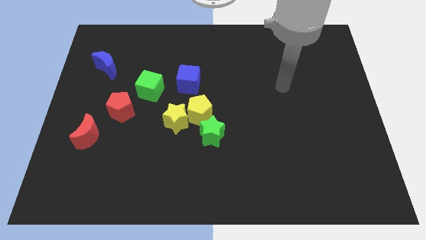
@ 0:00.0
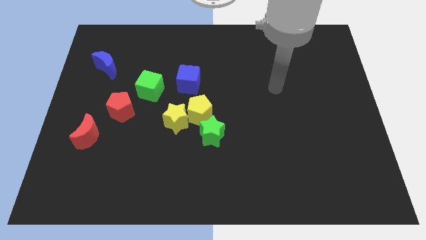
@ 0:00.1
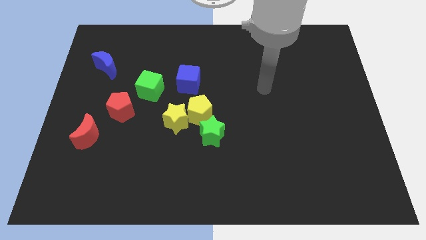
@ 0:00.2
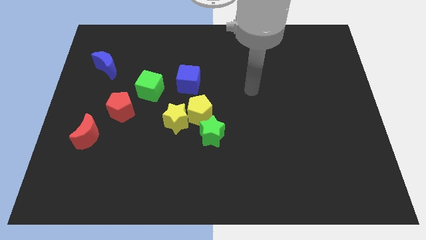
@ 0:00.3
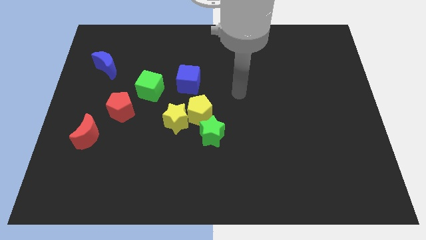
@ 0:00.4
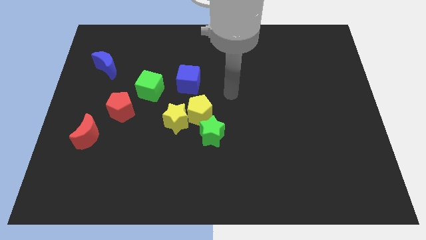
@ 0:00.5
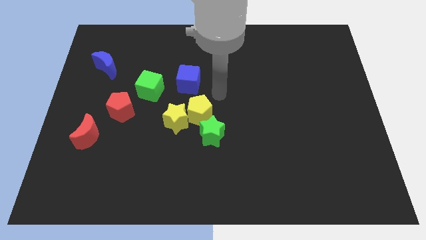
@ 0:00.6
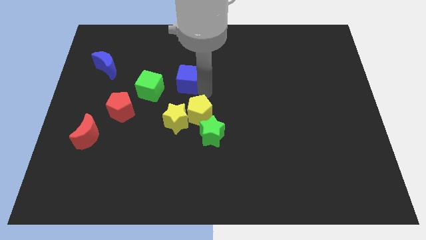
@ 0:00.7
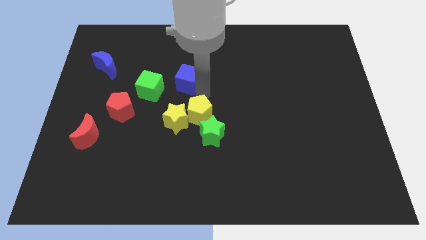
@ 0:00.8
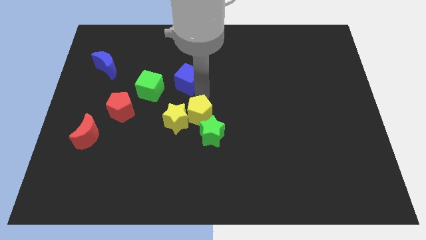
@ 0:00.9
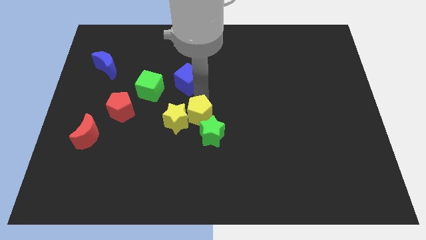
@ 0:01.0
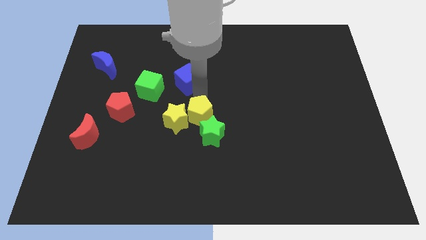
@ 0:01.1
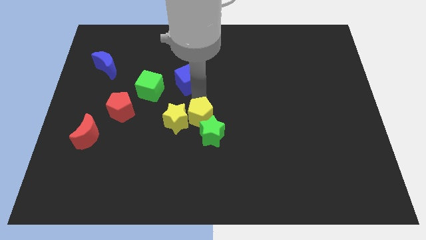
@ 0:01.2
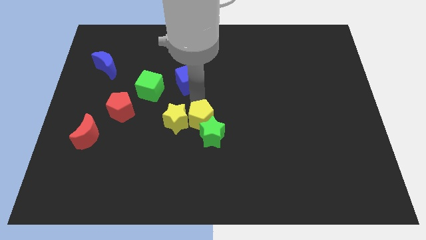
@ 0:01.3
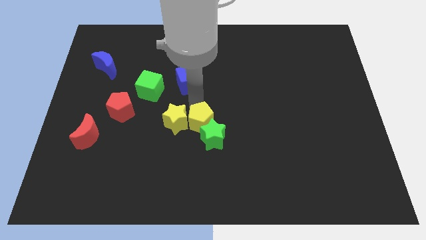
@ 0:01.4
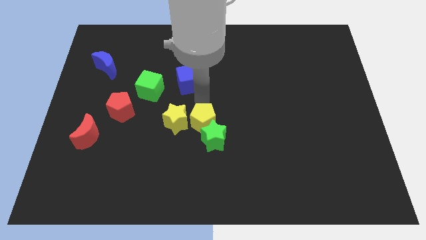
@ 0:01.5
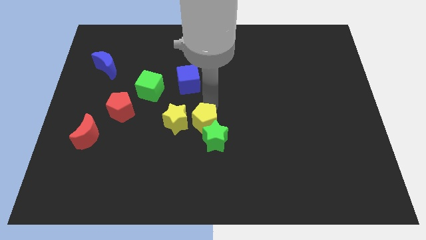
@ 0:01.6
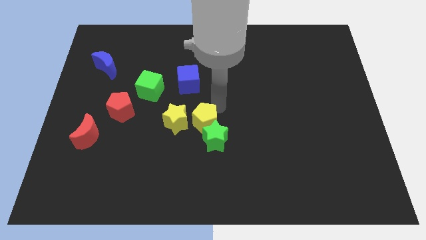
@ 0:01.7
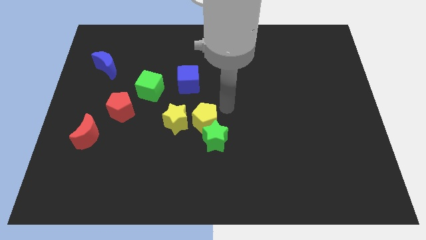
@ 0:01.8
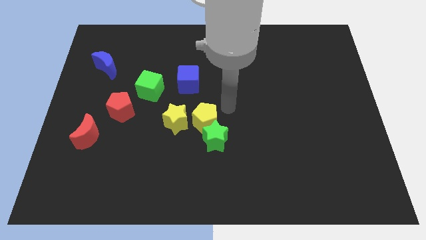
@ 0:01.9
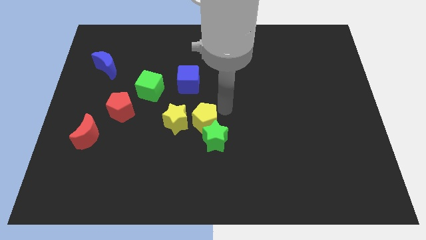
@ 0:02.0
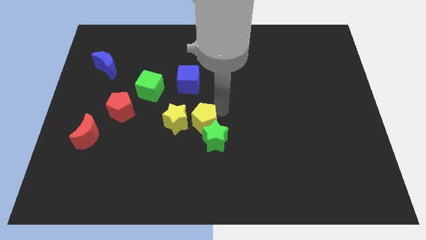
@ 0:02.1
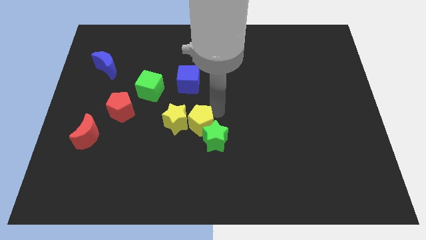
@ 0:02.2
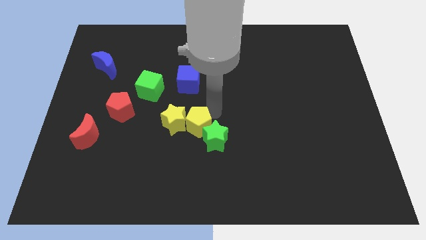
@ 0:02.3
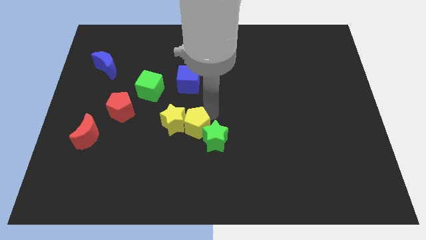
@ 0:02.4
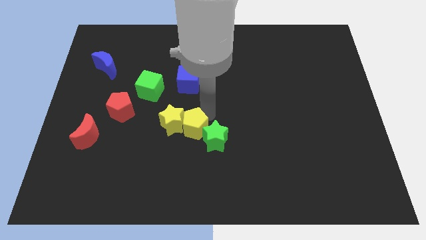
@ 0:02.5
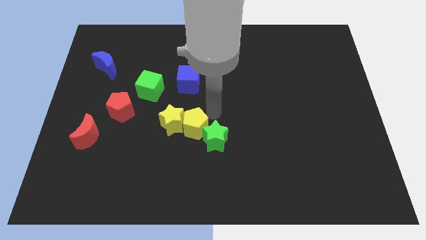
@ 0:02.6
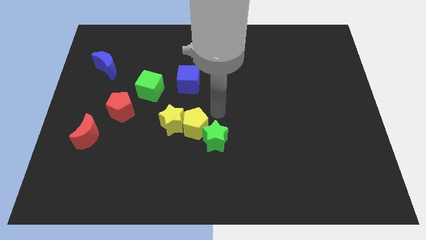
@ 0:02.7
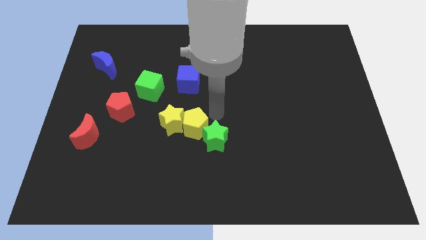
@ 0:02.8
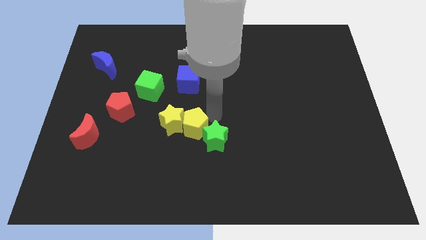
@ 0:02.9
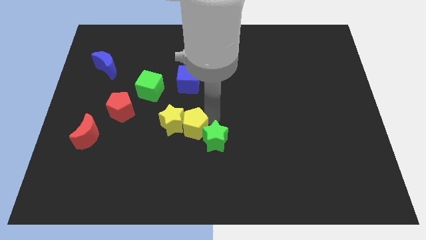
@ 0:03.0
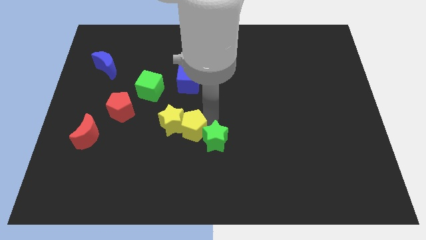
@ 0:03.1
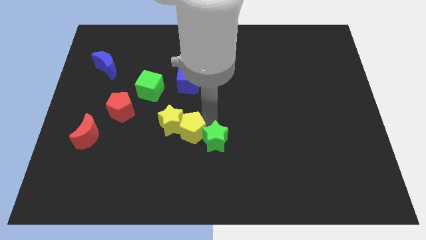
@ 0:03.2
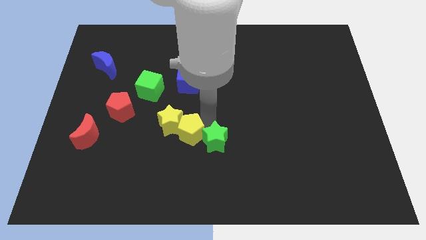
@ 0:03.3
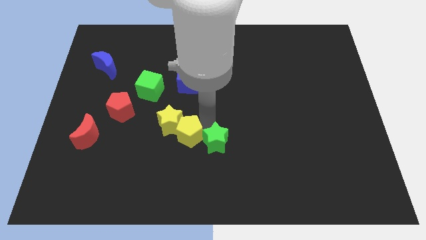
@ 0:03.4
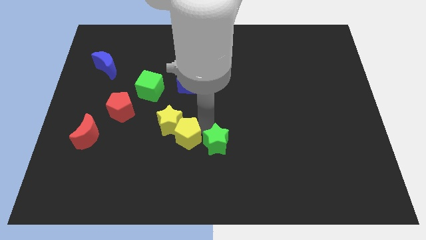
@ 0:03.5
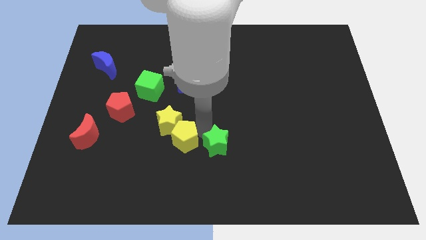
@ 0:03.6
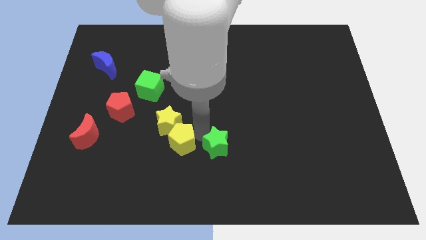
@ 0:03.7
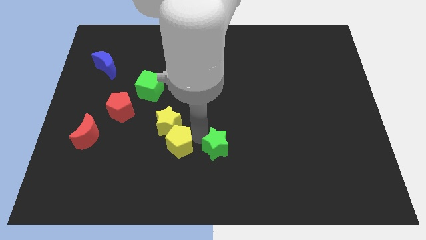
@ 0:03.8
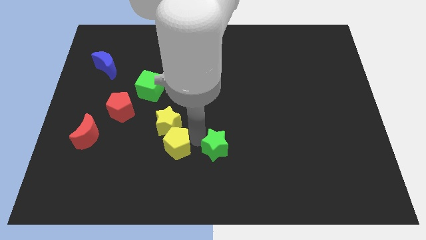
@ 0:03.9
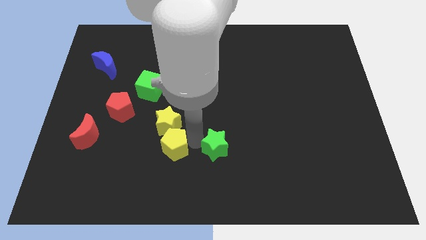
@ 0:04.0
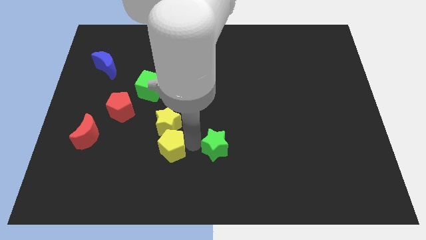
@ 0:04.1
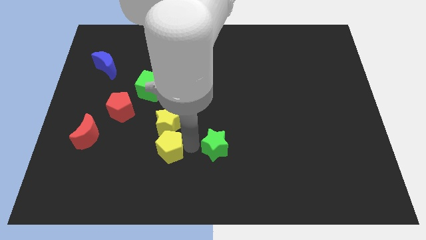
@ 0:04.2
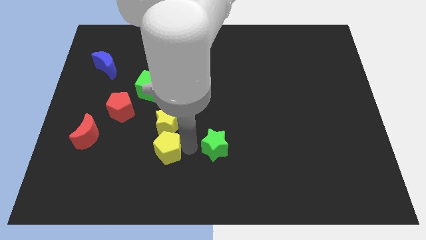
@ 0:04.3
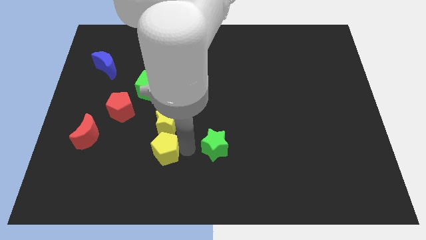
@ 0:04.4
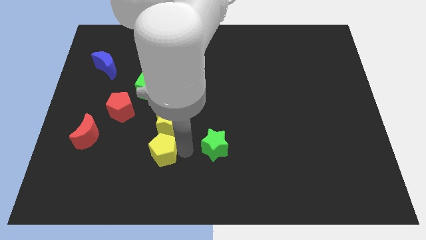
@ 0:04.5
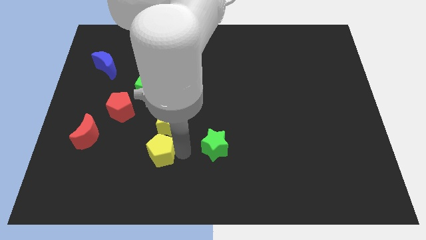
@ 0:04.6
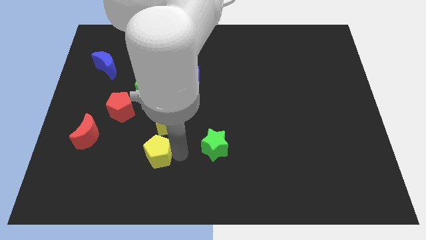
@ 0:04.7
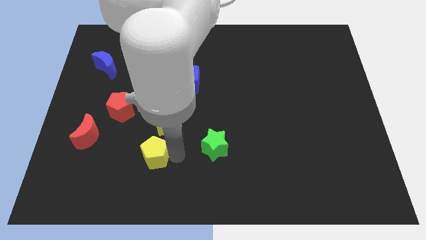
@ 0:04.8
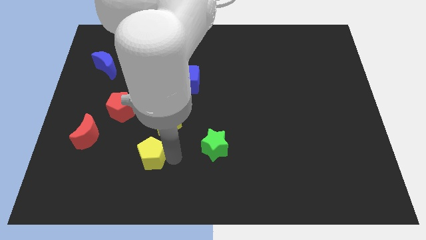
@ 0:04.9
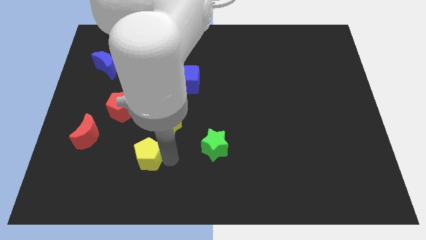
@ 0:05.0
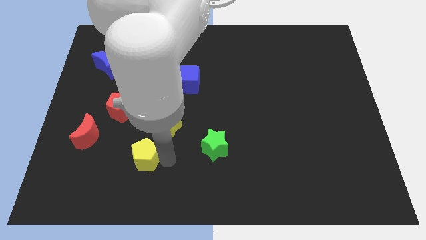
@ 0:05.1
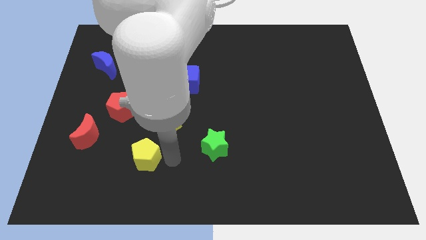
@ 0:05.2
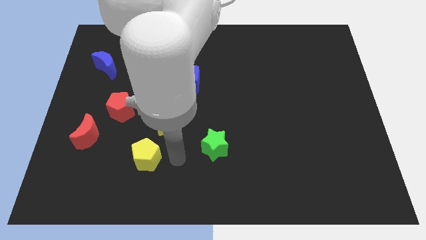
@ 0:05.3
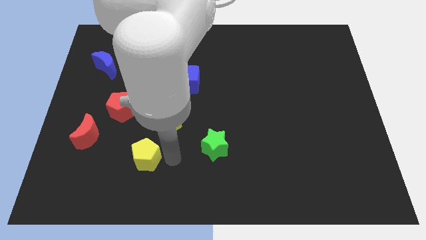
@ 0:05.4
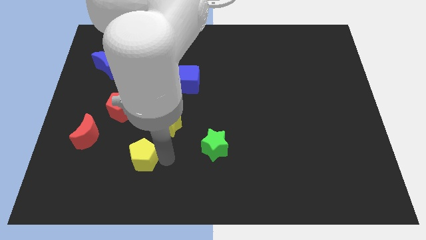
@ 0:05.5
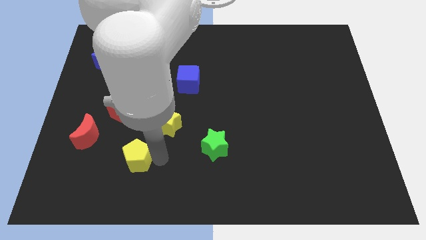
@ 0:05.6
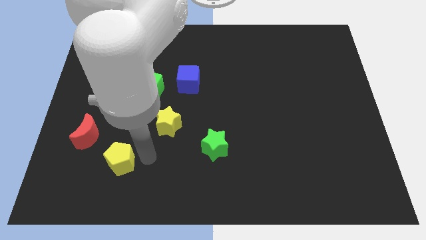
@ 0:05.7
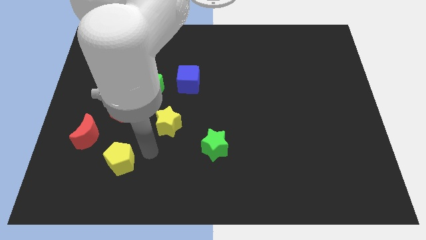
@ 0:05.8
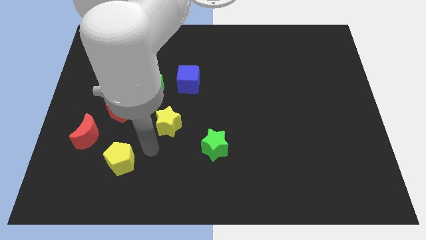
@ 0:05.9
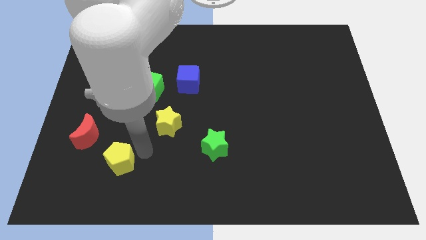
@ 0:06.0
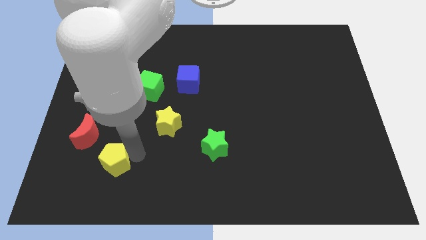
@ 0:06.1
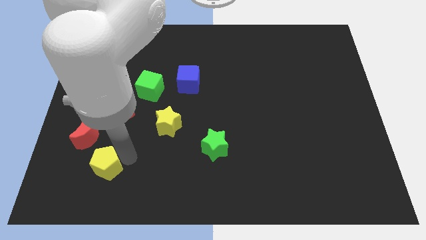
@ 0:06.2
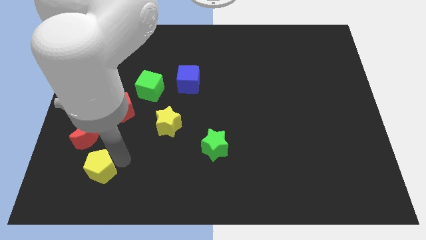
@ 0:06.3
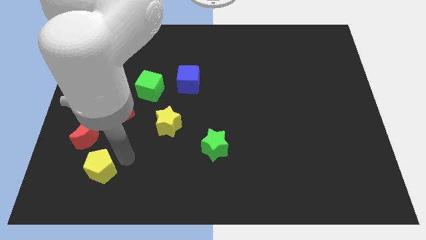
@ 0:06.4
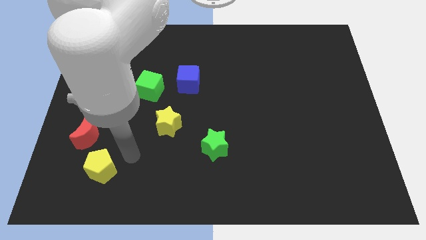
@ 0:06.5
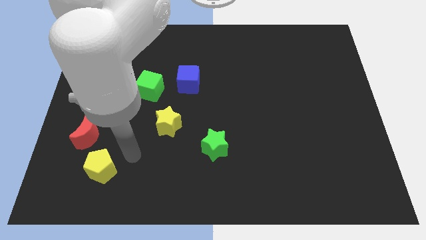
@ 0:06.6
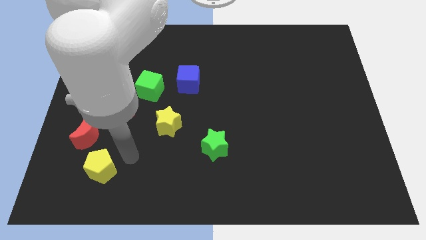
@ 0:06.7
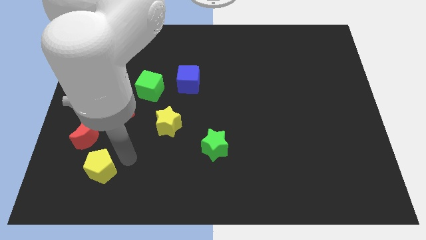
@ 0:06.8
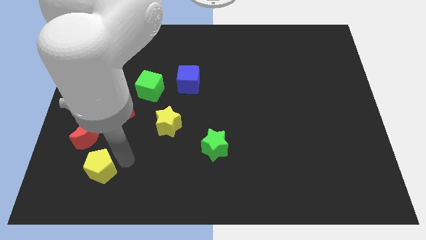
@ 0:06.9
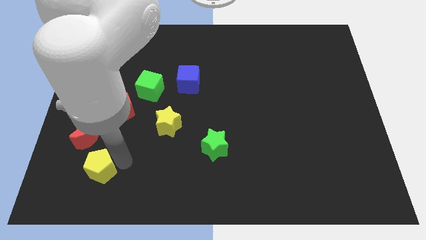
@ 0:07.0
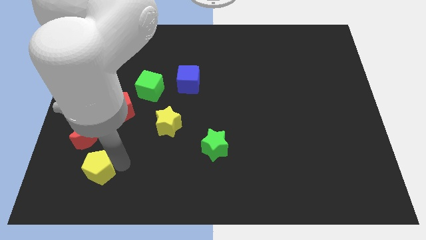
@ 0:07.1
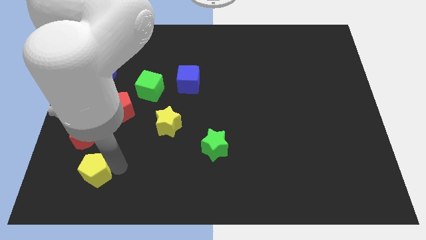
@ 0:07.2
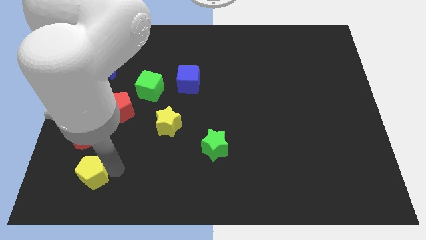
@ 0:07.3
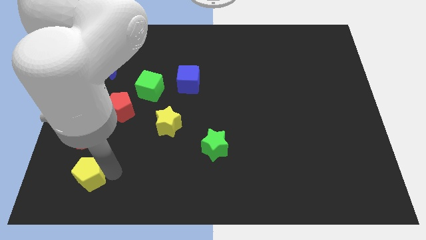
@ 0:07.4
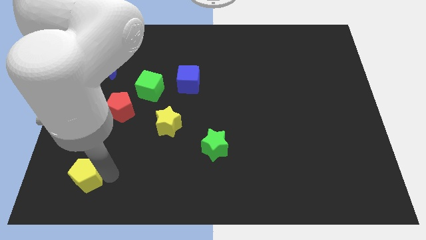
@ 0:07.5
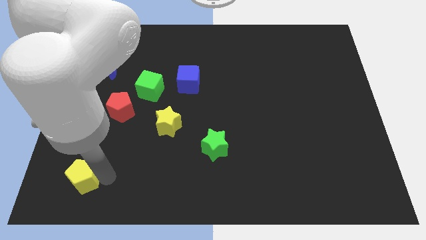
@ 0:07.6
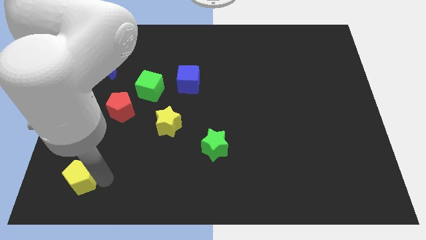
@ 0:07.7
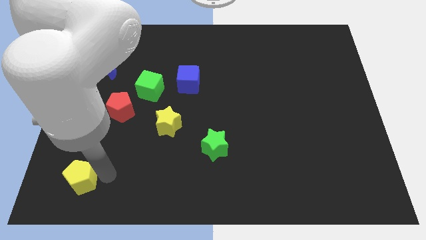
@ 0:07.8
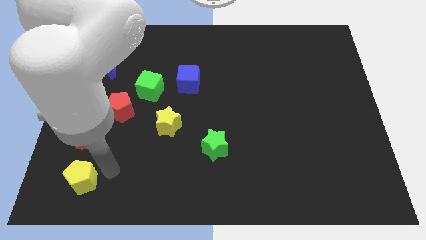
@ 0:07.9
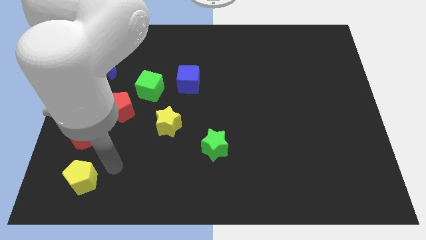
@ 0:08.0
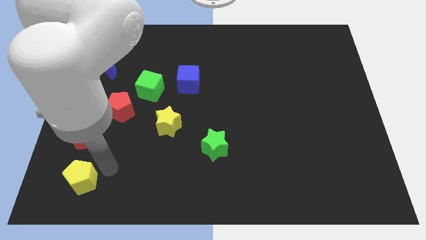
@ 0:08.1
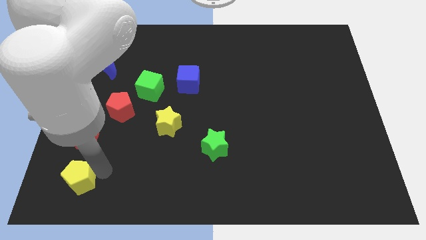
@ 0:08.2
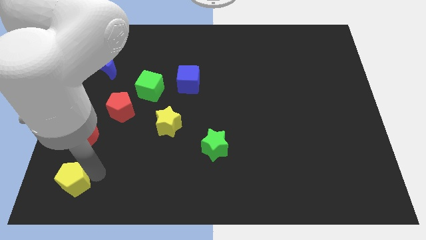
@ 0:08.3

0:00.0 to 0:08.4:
put the yellow pentagon to the bottom left
